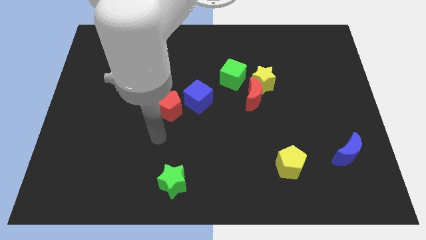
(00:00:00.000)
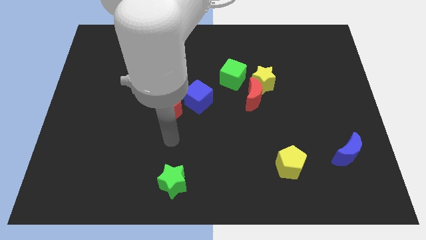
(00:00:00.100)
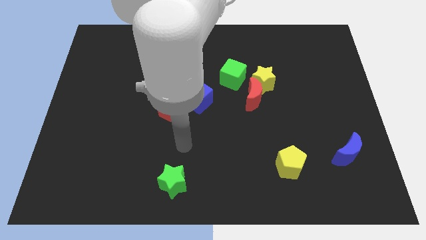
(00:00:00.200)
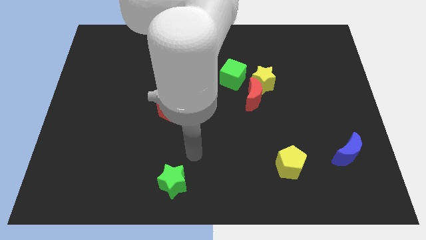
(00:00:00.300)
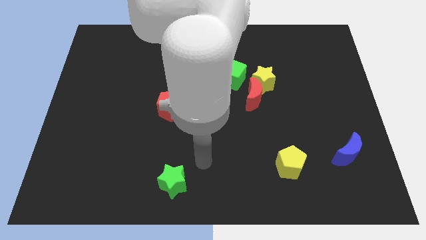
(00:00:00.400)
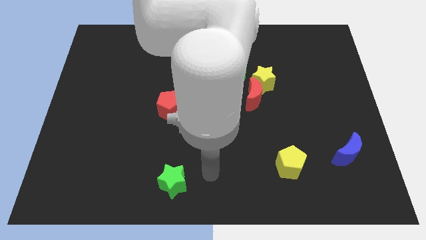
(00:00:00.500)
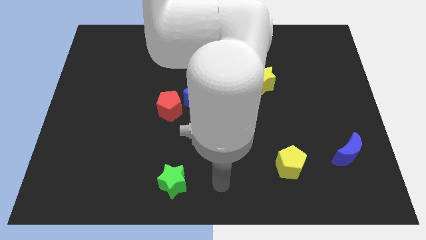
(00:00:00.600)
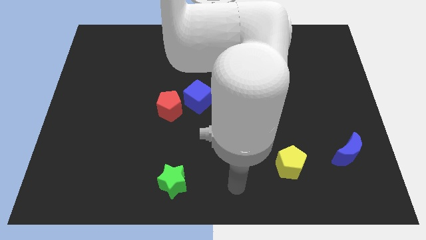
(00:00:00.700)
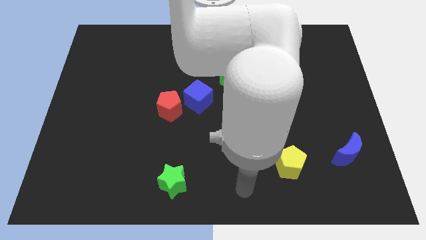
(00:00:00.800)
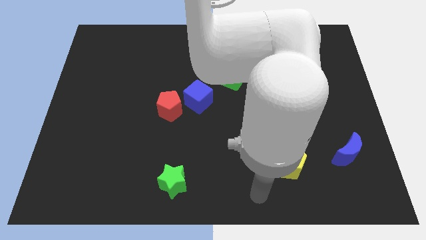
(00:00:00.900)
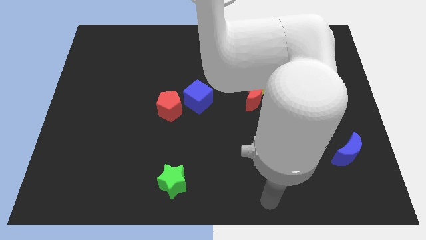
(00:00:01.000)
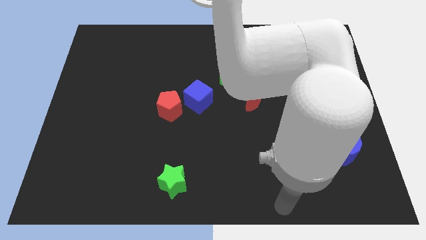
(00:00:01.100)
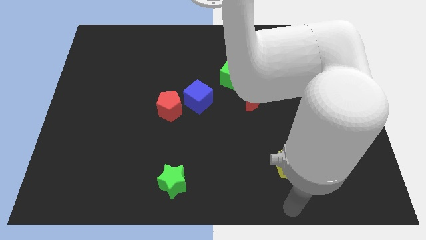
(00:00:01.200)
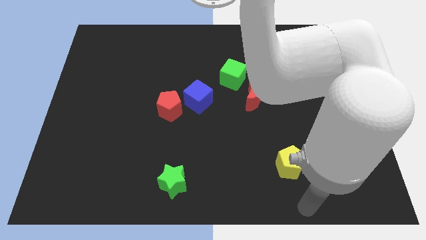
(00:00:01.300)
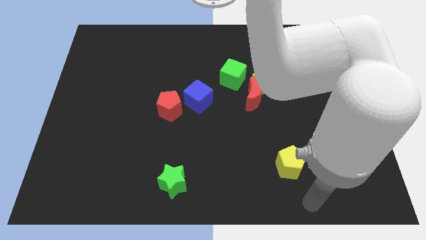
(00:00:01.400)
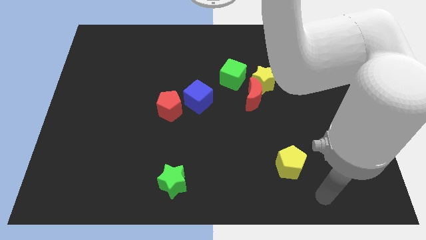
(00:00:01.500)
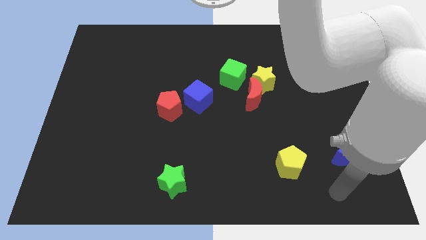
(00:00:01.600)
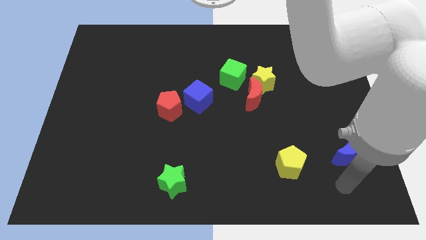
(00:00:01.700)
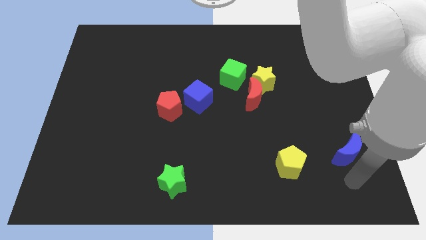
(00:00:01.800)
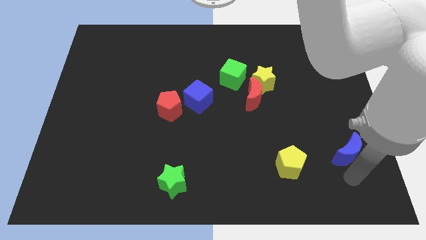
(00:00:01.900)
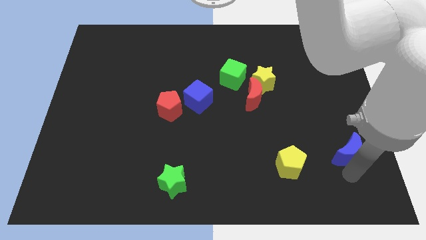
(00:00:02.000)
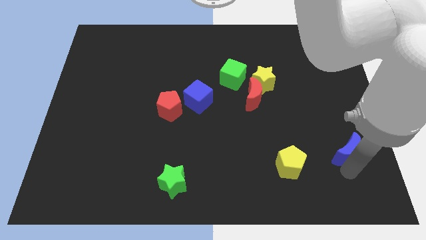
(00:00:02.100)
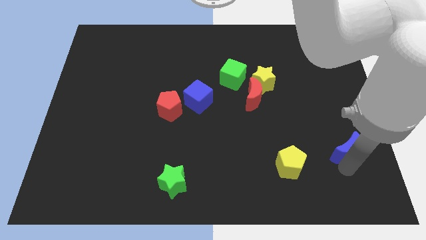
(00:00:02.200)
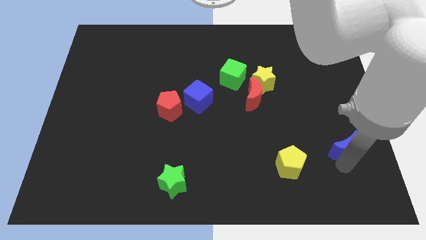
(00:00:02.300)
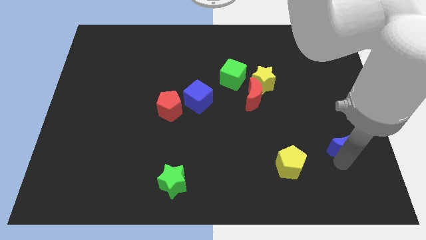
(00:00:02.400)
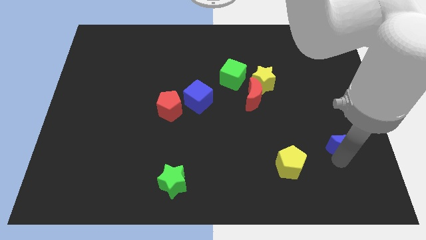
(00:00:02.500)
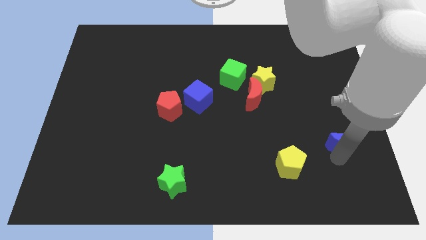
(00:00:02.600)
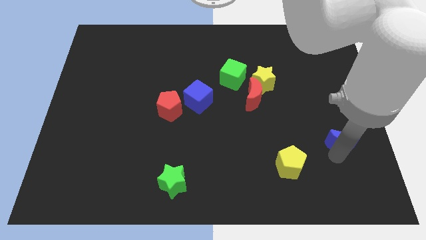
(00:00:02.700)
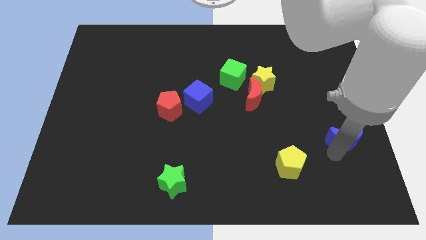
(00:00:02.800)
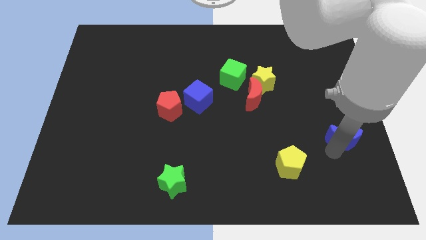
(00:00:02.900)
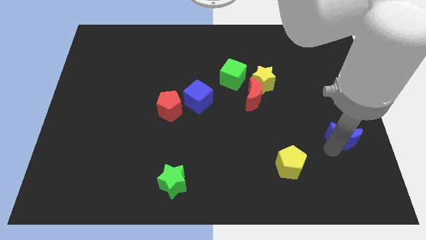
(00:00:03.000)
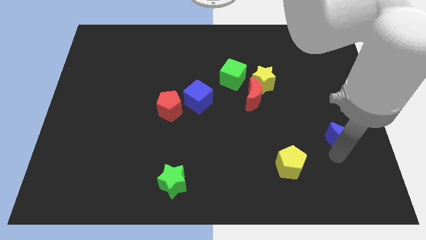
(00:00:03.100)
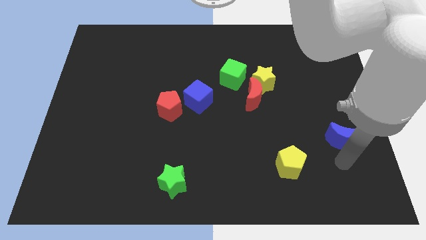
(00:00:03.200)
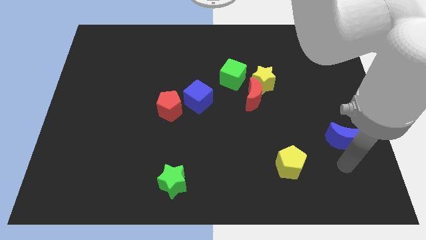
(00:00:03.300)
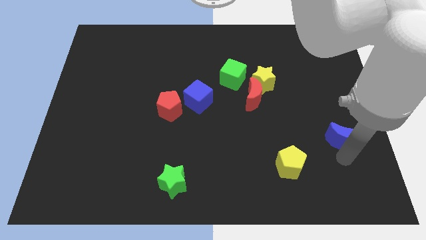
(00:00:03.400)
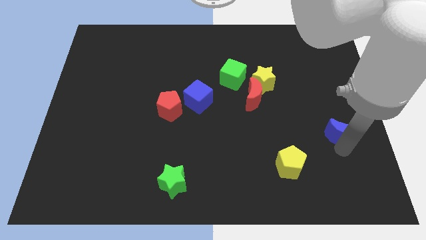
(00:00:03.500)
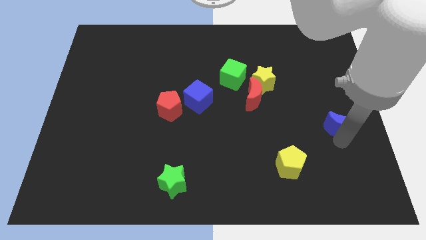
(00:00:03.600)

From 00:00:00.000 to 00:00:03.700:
slightly move the blue moon upwards

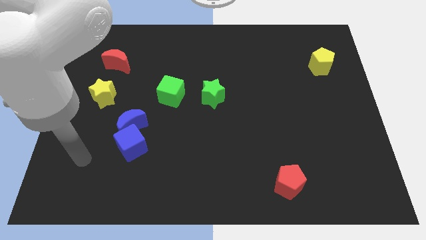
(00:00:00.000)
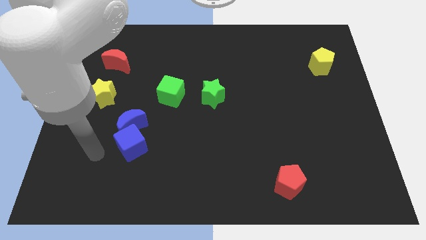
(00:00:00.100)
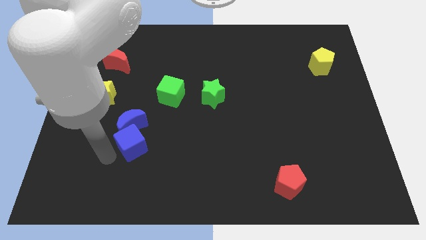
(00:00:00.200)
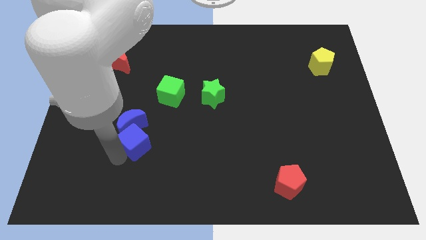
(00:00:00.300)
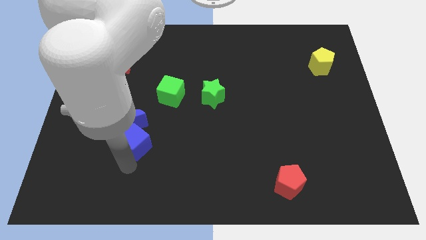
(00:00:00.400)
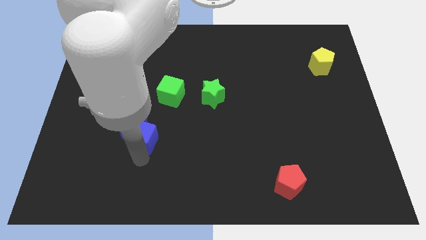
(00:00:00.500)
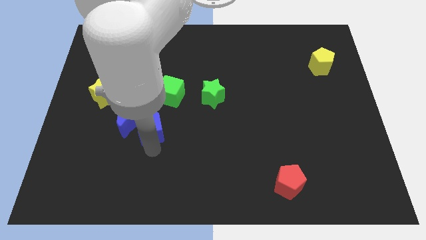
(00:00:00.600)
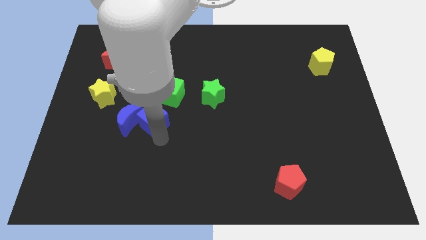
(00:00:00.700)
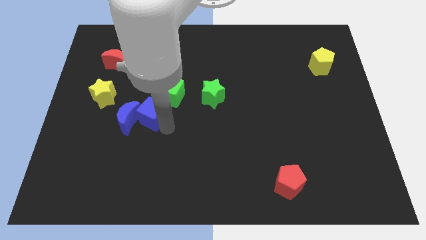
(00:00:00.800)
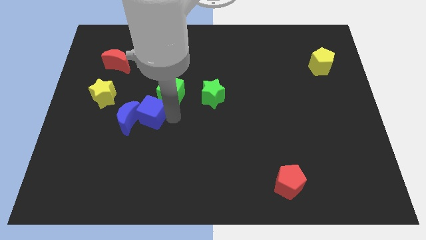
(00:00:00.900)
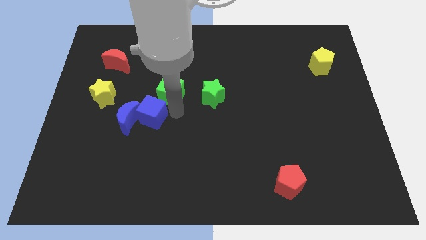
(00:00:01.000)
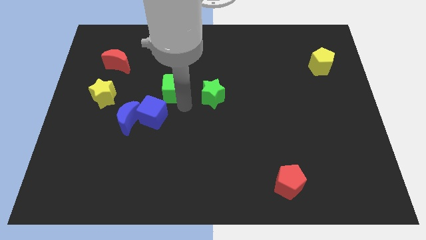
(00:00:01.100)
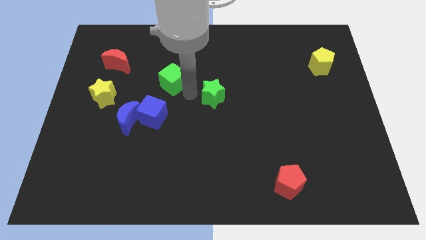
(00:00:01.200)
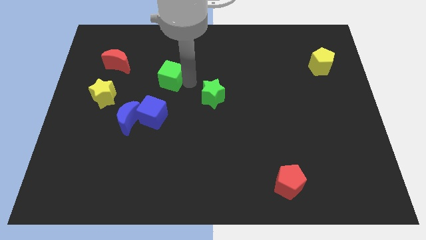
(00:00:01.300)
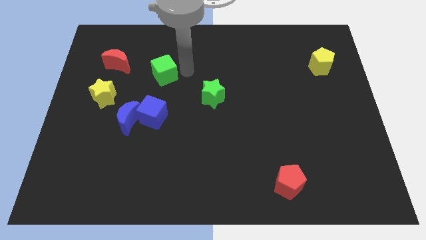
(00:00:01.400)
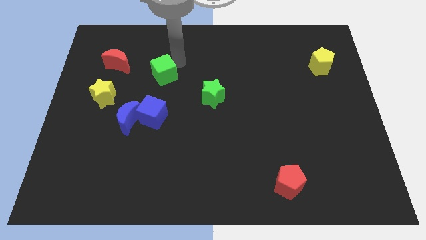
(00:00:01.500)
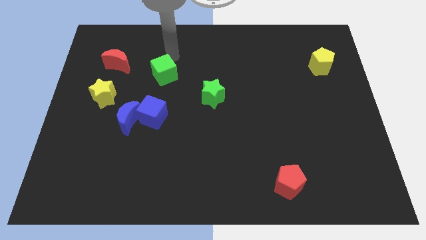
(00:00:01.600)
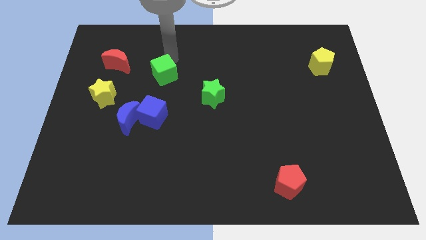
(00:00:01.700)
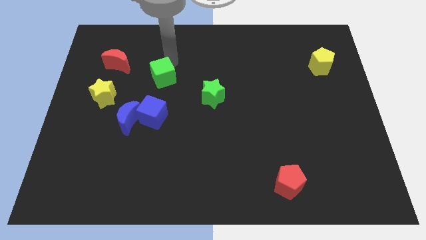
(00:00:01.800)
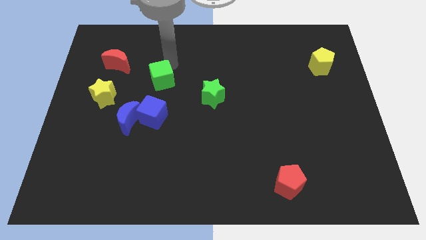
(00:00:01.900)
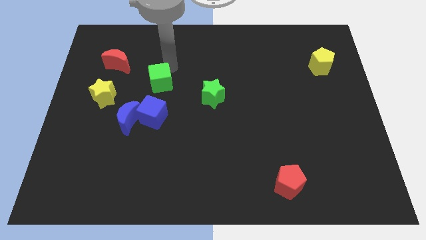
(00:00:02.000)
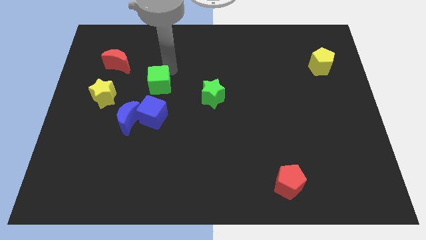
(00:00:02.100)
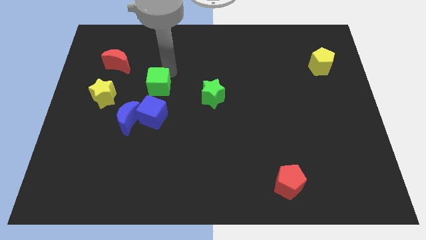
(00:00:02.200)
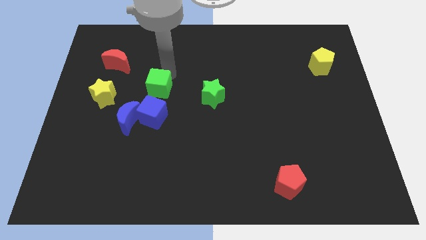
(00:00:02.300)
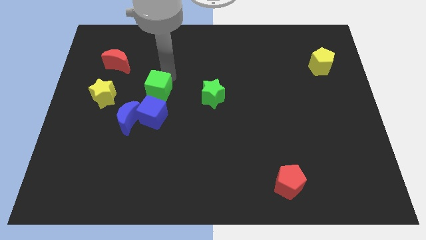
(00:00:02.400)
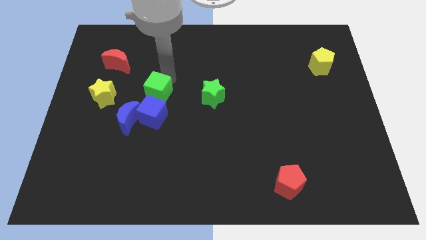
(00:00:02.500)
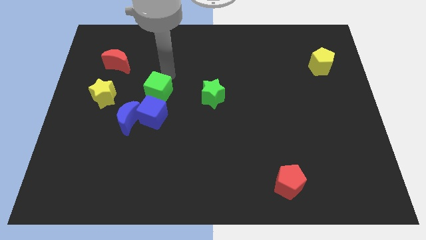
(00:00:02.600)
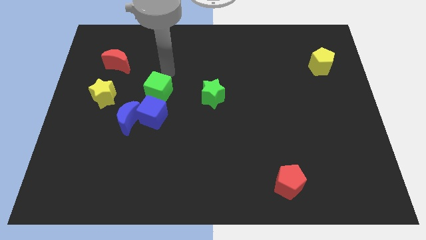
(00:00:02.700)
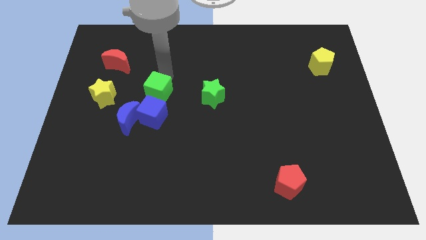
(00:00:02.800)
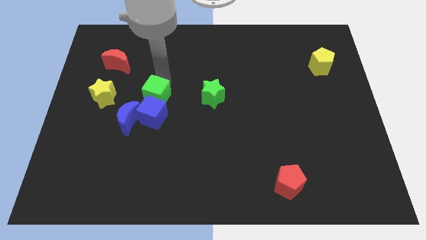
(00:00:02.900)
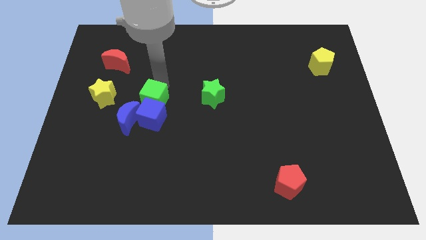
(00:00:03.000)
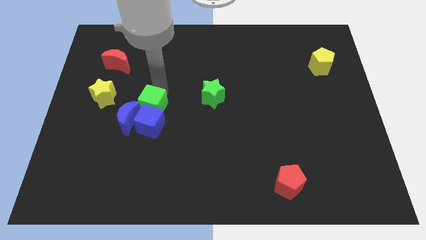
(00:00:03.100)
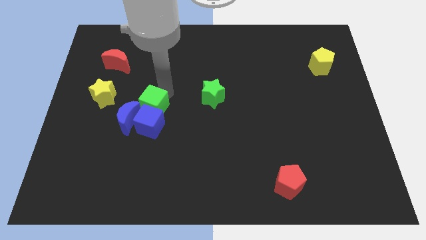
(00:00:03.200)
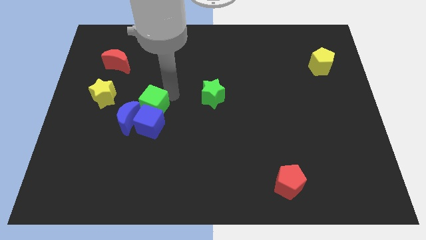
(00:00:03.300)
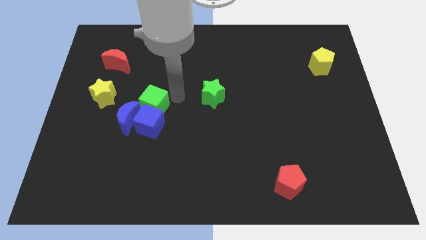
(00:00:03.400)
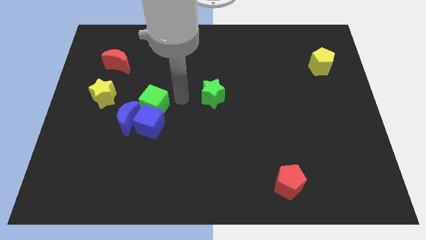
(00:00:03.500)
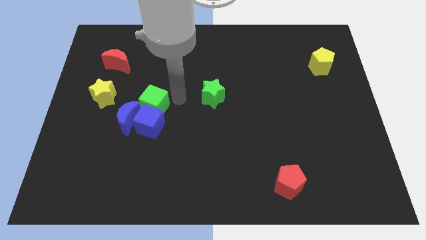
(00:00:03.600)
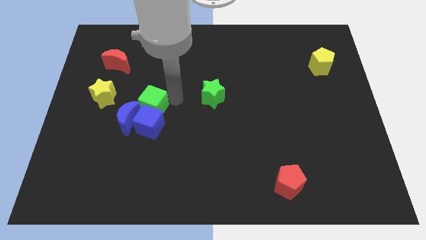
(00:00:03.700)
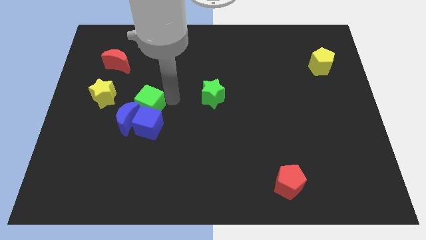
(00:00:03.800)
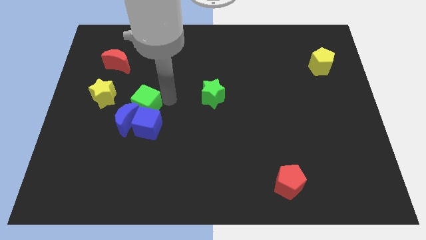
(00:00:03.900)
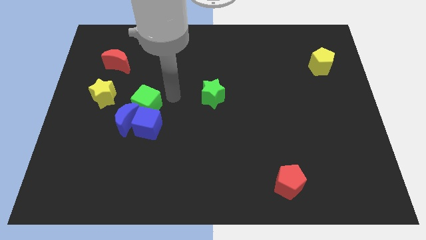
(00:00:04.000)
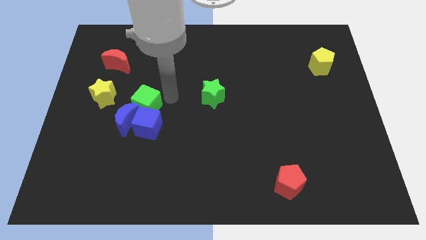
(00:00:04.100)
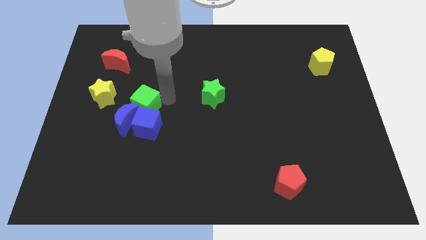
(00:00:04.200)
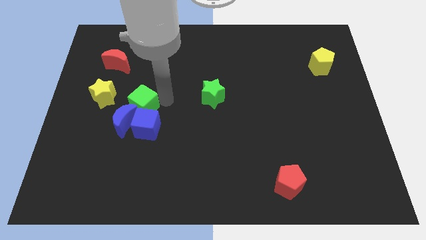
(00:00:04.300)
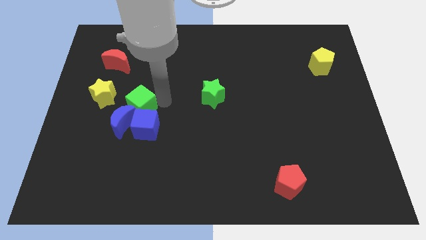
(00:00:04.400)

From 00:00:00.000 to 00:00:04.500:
push the green cube a little down and to the left diagonally
